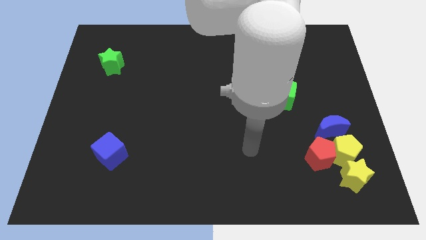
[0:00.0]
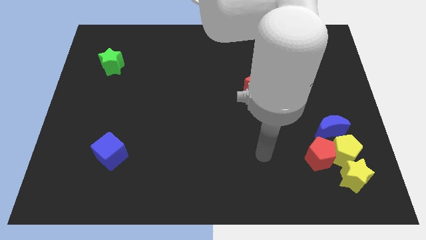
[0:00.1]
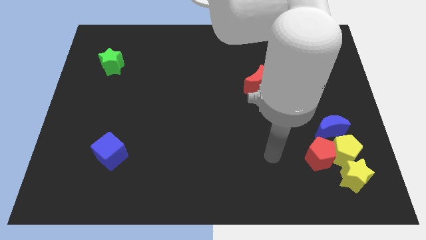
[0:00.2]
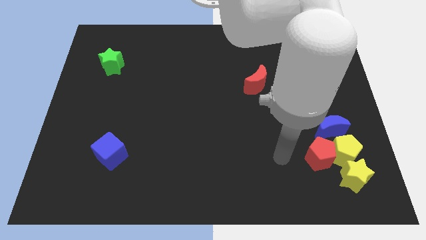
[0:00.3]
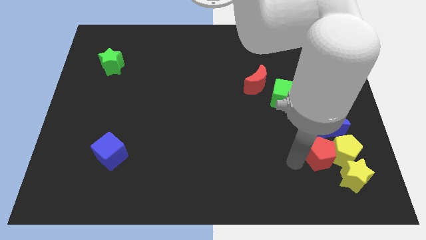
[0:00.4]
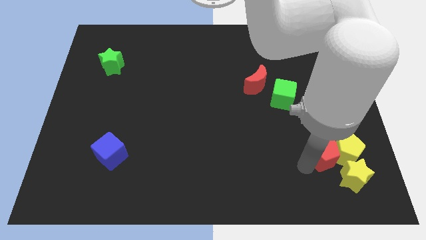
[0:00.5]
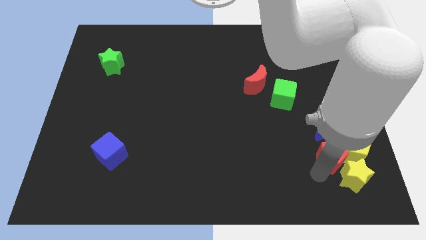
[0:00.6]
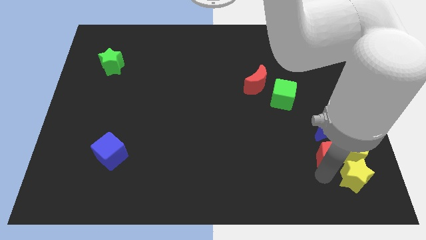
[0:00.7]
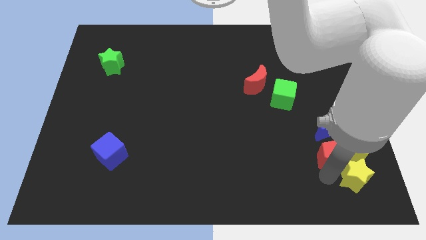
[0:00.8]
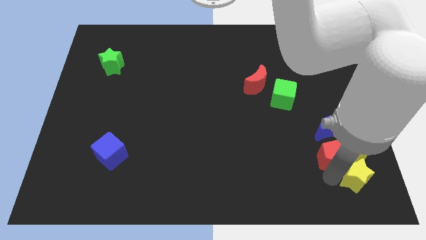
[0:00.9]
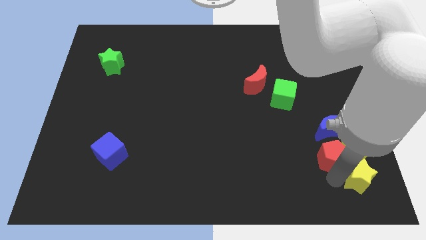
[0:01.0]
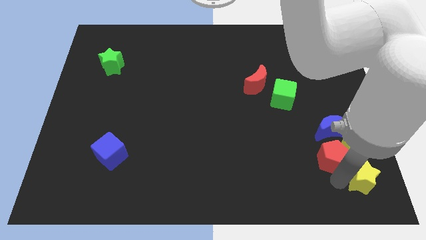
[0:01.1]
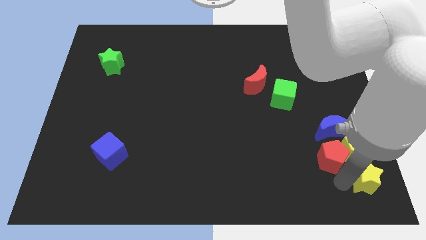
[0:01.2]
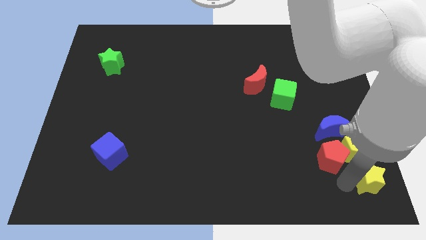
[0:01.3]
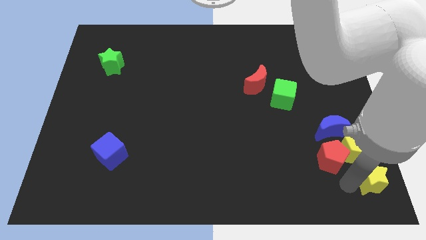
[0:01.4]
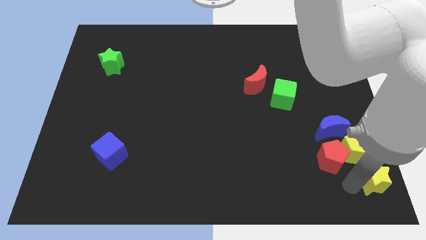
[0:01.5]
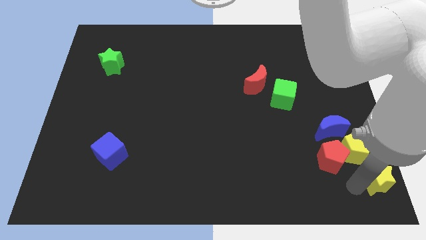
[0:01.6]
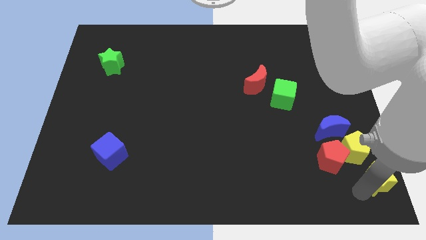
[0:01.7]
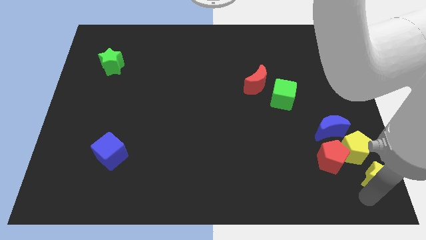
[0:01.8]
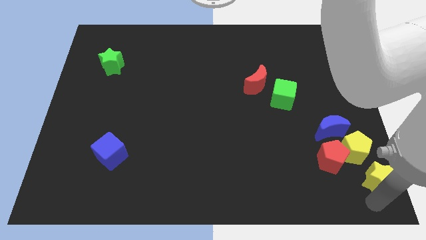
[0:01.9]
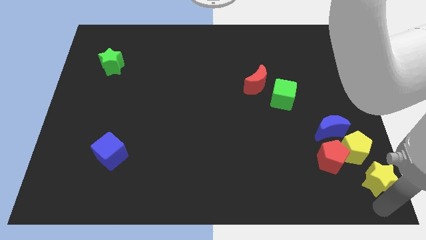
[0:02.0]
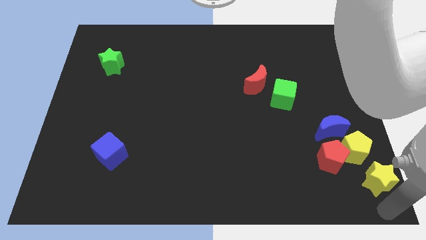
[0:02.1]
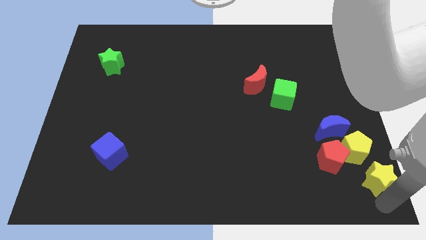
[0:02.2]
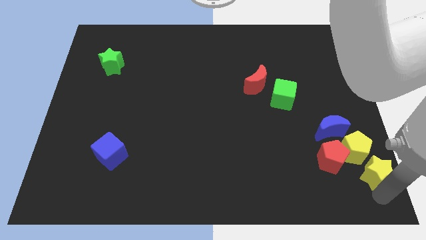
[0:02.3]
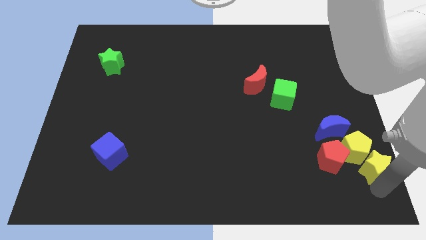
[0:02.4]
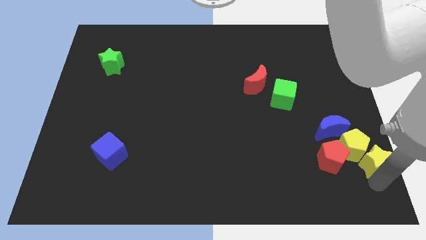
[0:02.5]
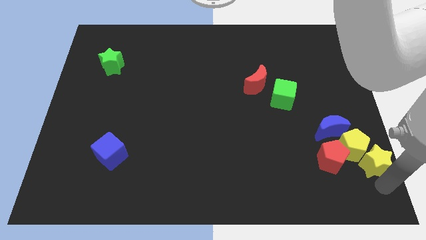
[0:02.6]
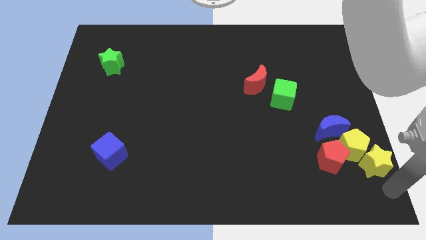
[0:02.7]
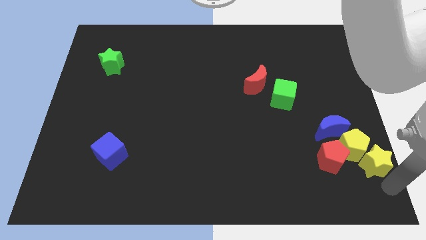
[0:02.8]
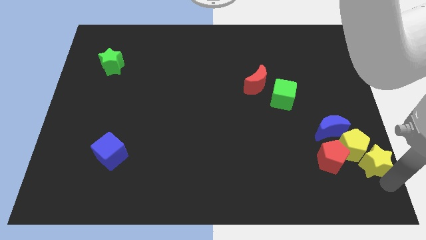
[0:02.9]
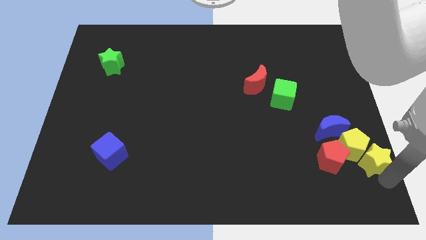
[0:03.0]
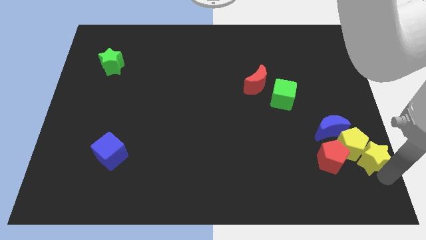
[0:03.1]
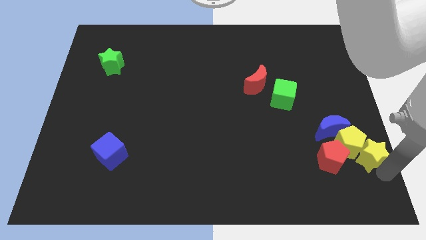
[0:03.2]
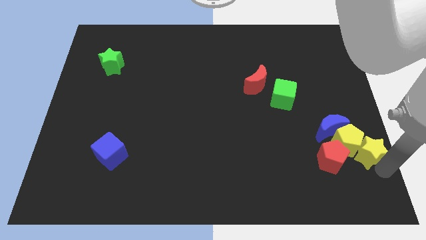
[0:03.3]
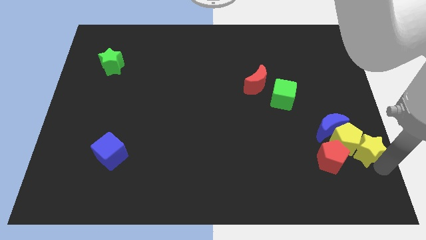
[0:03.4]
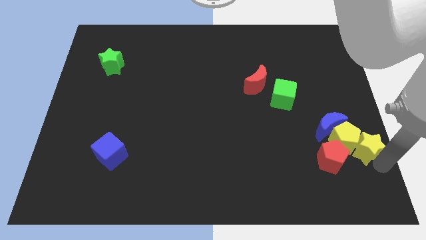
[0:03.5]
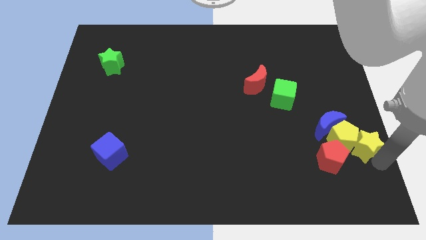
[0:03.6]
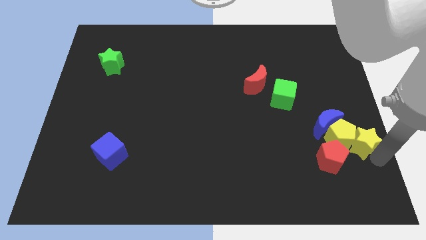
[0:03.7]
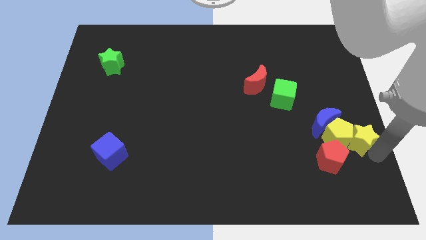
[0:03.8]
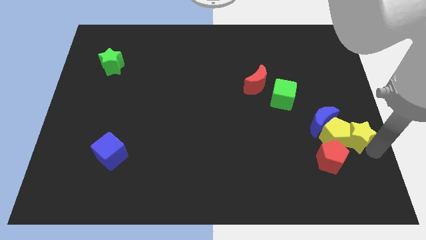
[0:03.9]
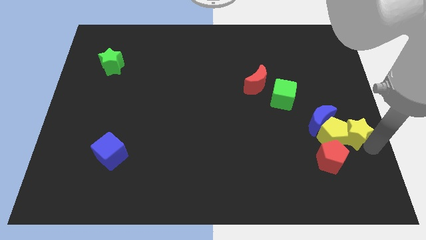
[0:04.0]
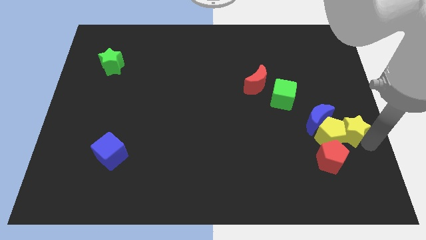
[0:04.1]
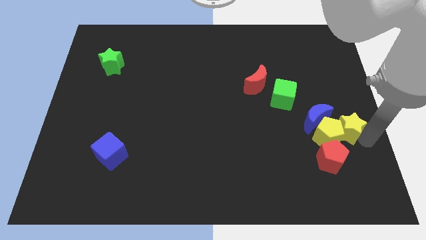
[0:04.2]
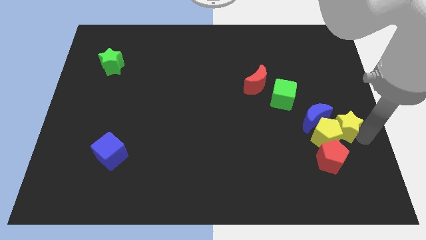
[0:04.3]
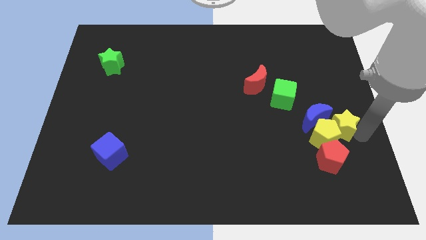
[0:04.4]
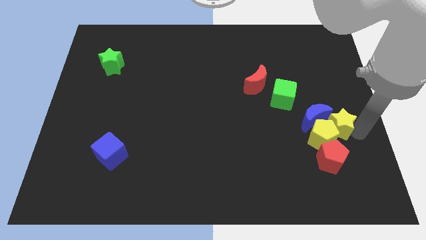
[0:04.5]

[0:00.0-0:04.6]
put the yellow star towards the blue moon

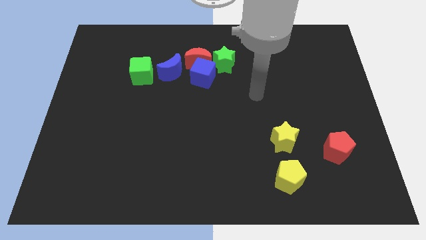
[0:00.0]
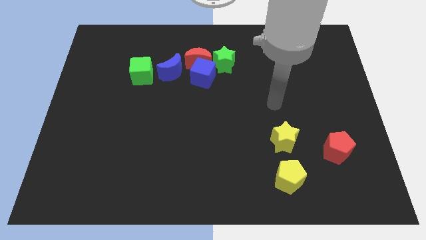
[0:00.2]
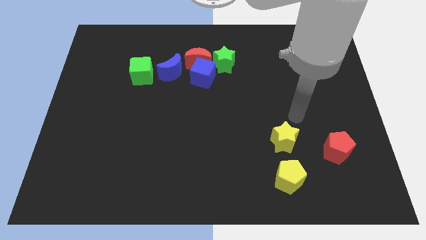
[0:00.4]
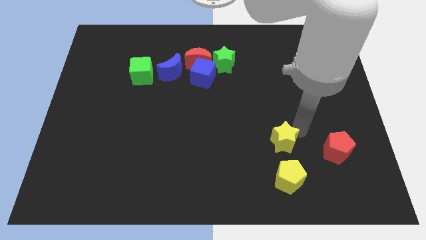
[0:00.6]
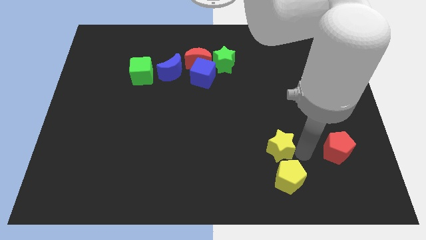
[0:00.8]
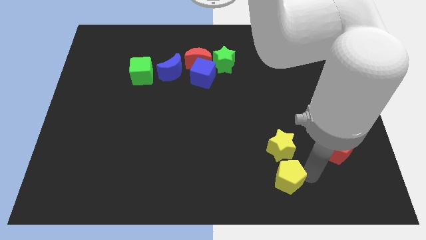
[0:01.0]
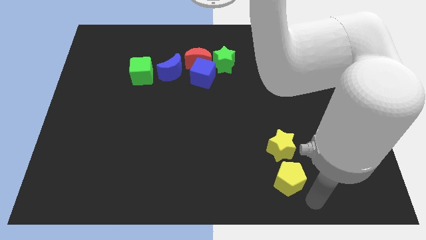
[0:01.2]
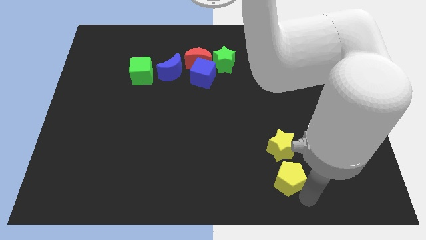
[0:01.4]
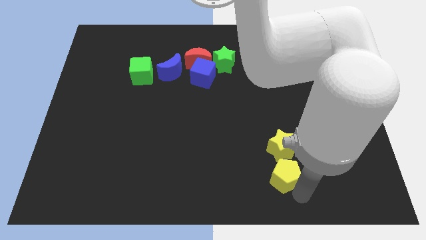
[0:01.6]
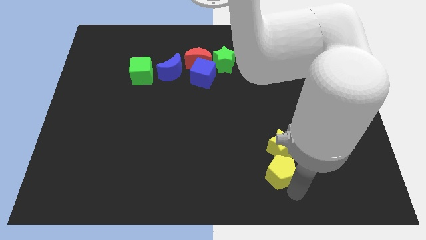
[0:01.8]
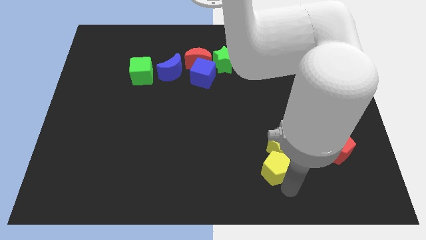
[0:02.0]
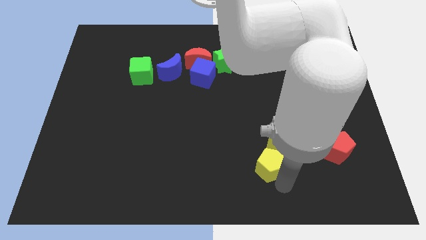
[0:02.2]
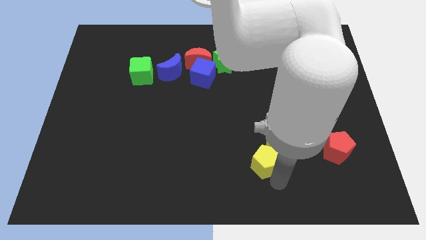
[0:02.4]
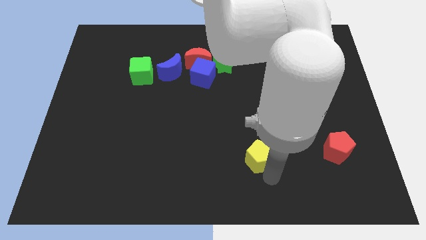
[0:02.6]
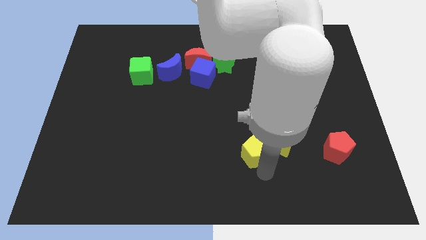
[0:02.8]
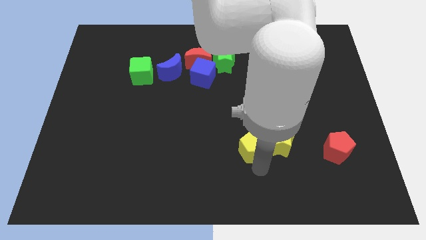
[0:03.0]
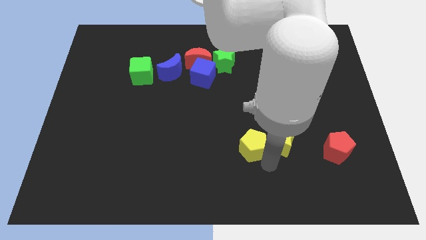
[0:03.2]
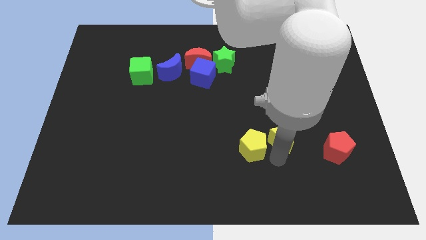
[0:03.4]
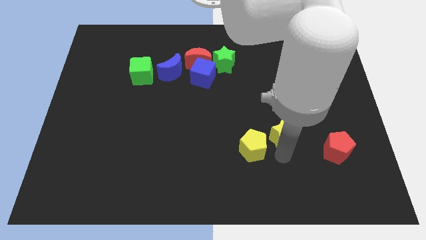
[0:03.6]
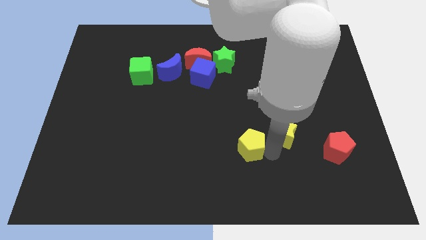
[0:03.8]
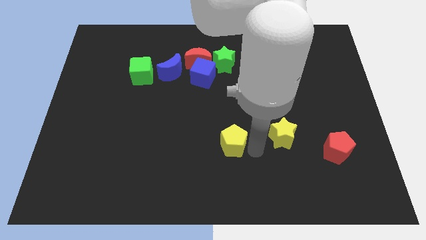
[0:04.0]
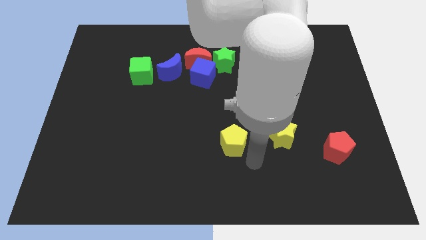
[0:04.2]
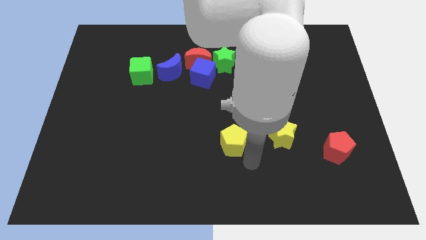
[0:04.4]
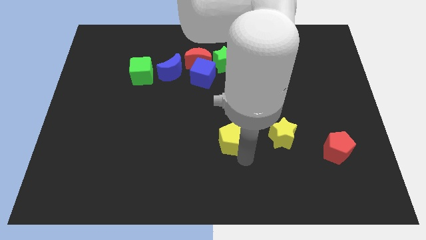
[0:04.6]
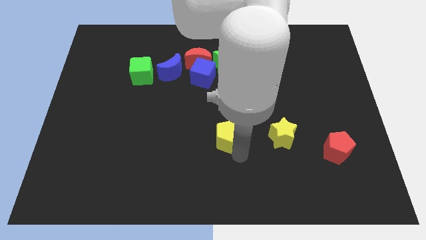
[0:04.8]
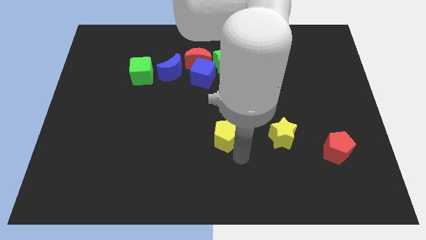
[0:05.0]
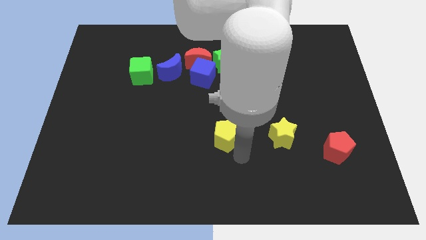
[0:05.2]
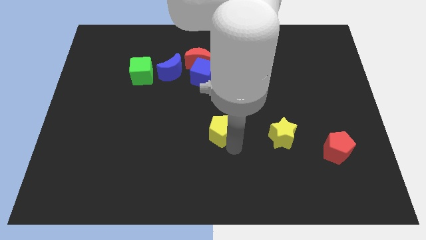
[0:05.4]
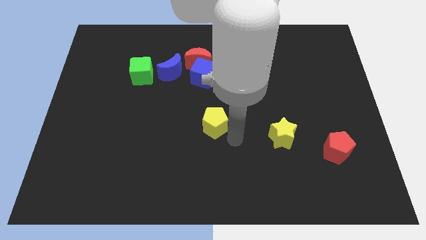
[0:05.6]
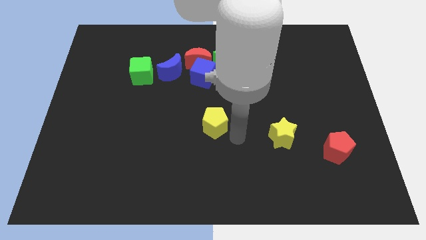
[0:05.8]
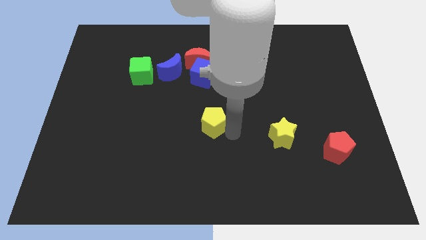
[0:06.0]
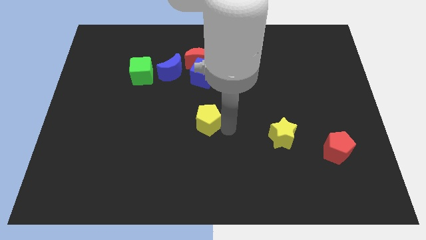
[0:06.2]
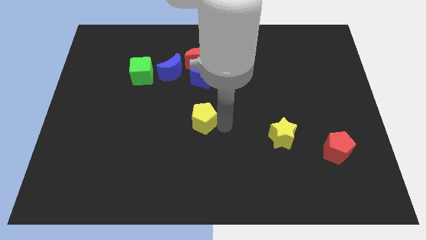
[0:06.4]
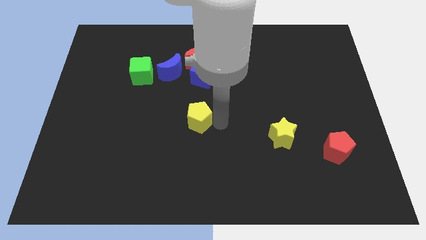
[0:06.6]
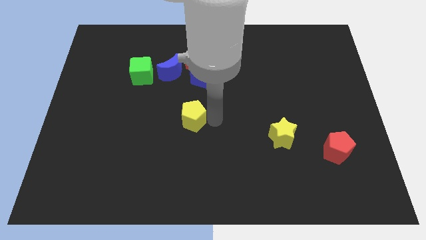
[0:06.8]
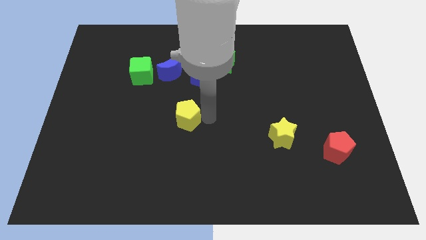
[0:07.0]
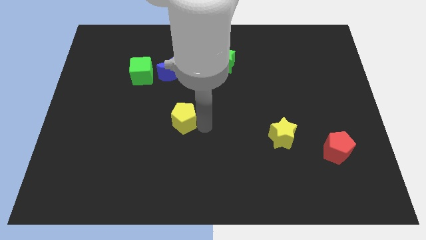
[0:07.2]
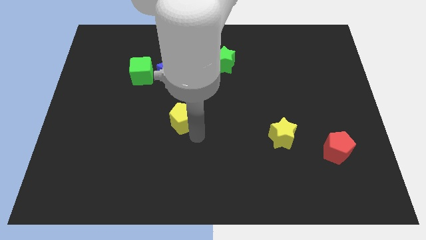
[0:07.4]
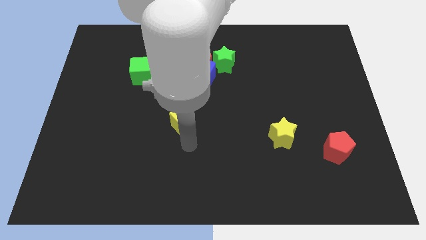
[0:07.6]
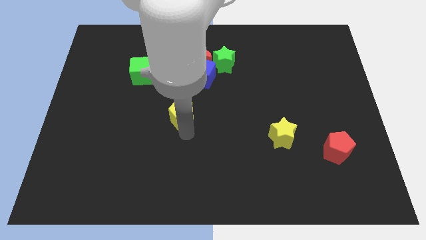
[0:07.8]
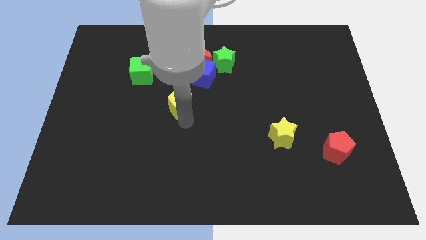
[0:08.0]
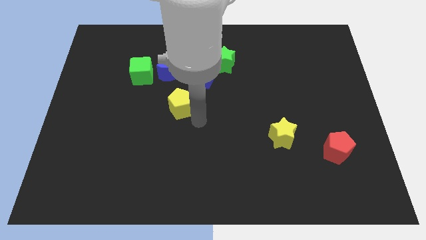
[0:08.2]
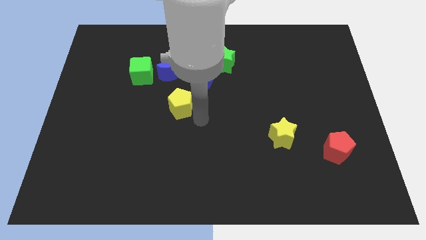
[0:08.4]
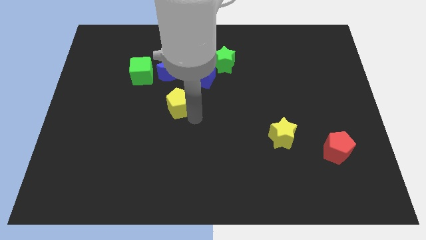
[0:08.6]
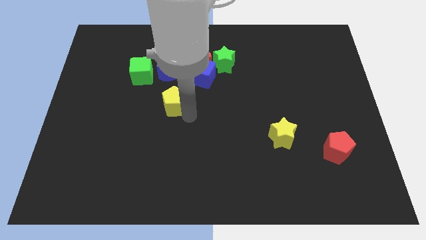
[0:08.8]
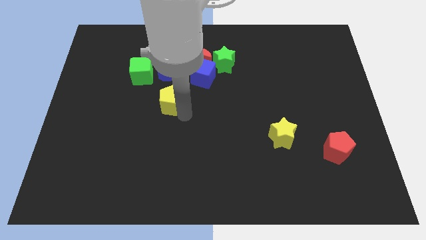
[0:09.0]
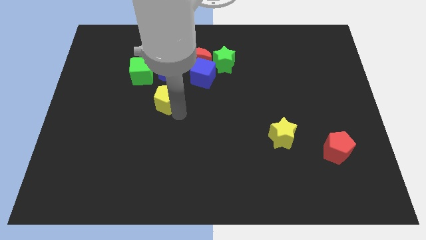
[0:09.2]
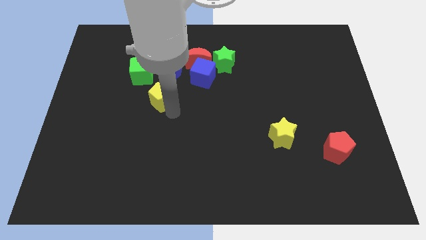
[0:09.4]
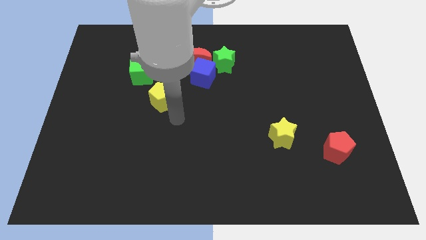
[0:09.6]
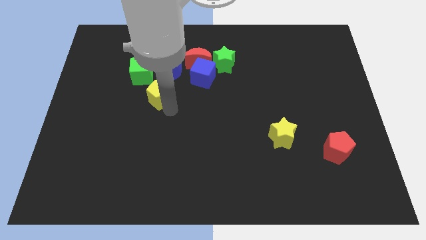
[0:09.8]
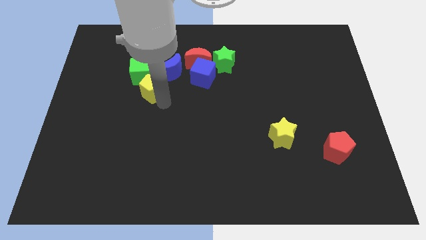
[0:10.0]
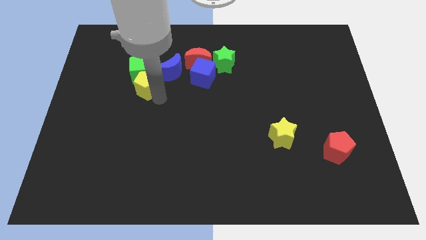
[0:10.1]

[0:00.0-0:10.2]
push the yellow pentagon to the green cube
